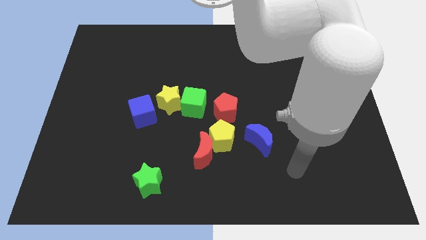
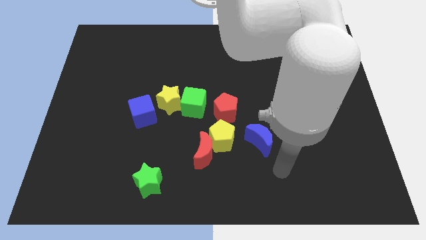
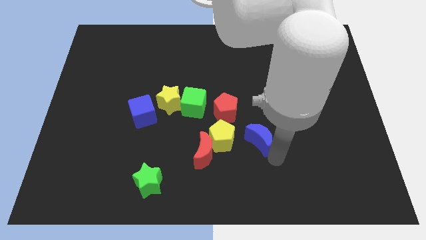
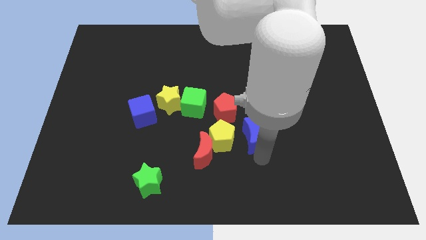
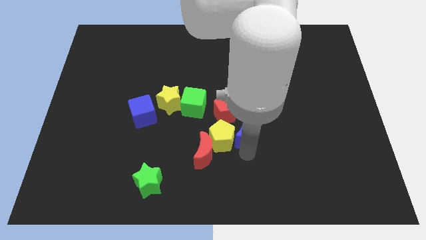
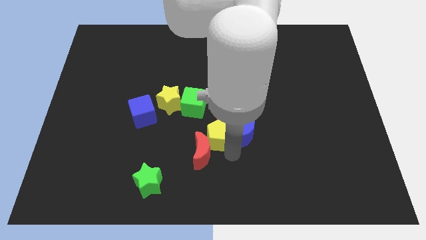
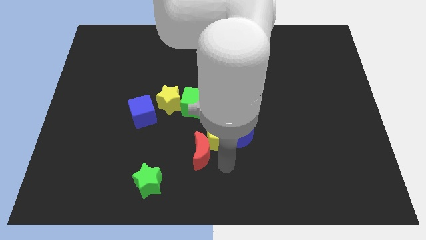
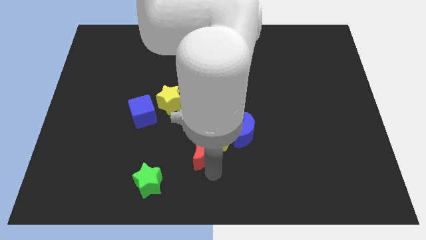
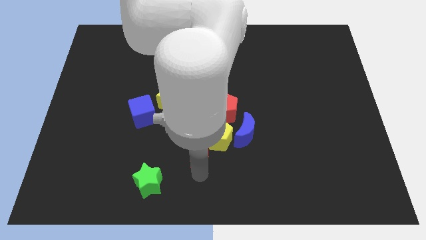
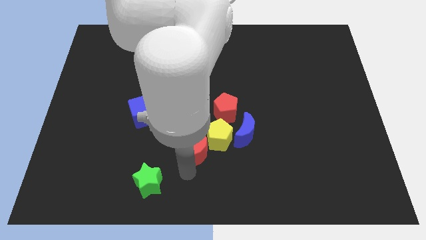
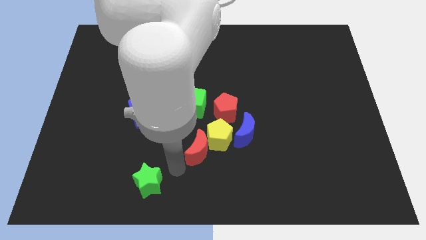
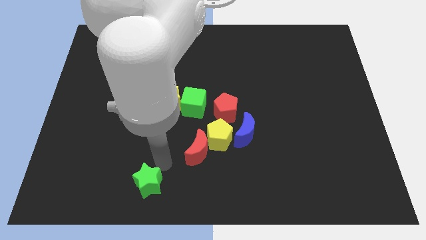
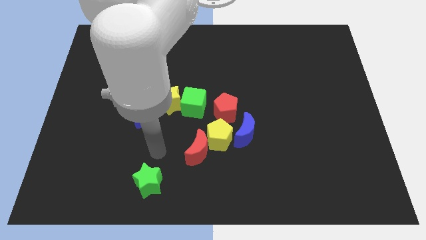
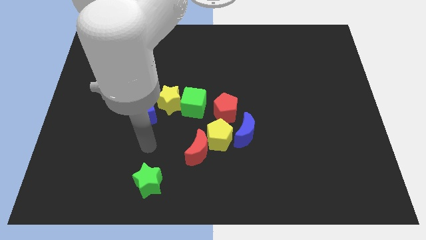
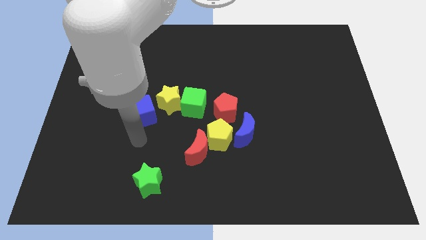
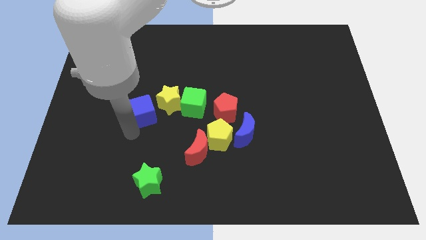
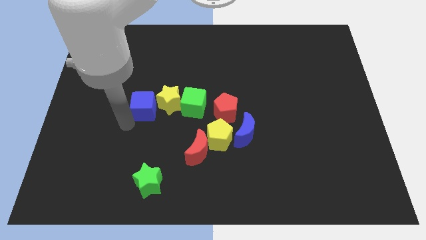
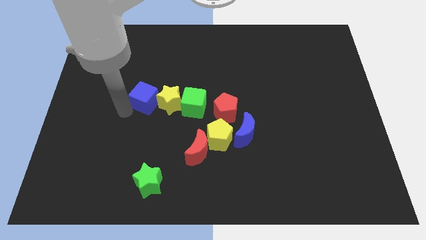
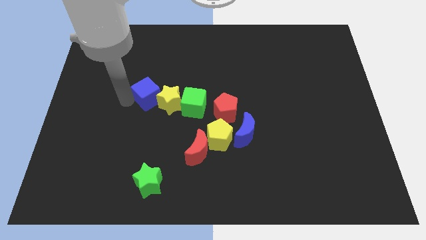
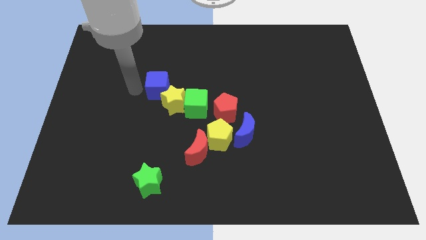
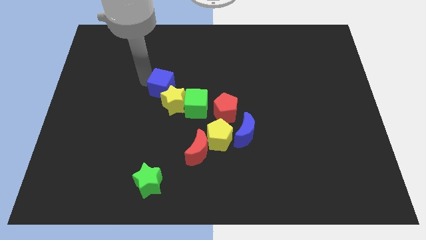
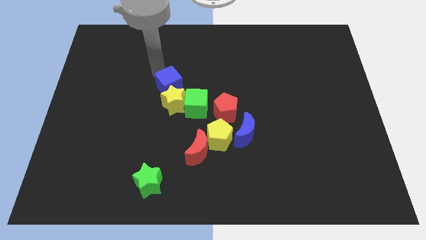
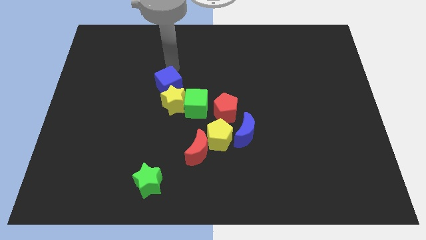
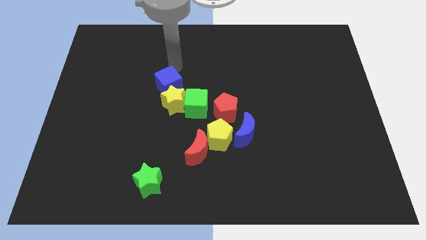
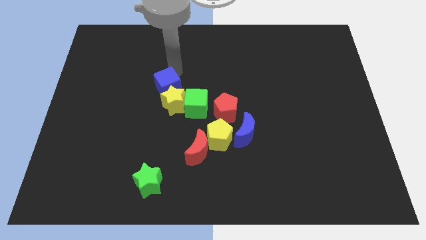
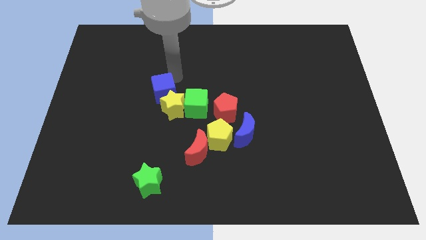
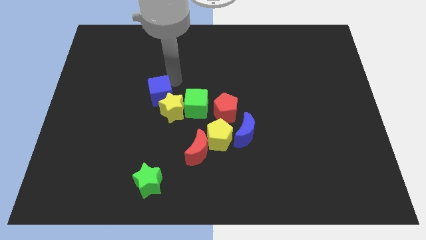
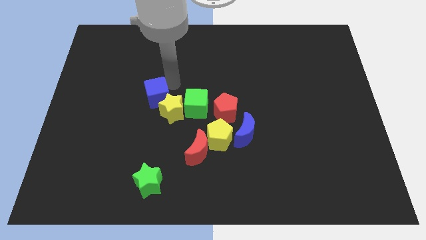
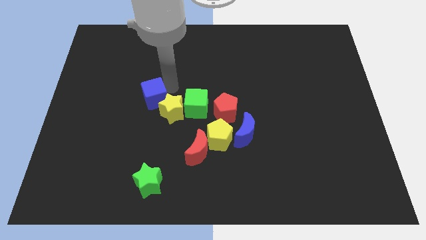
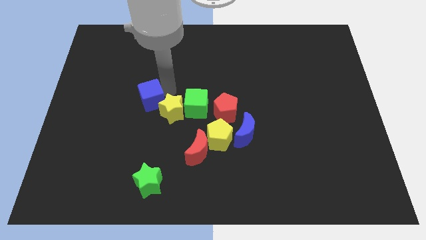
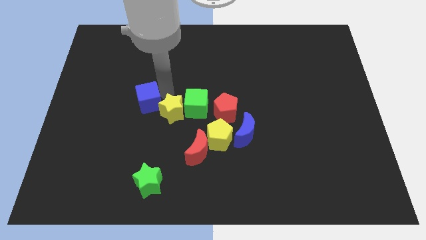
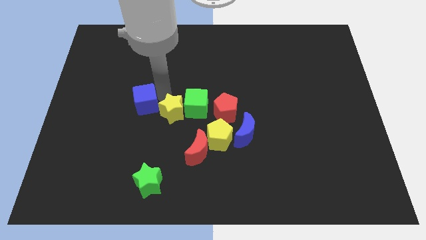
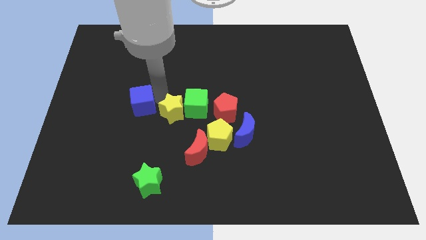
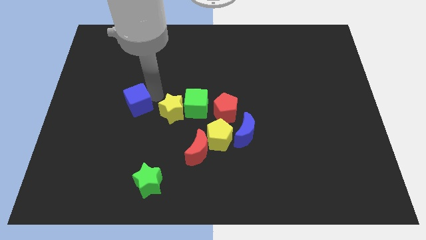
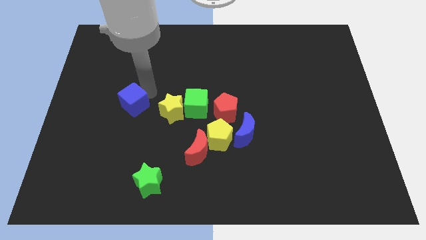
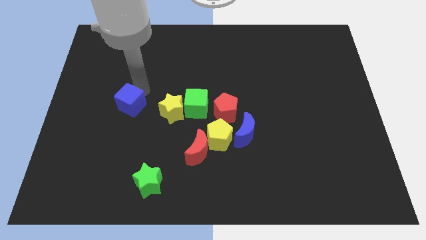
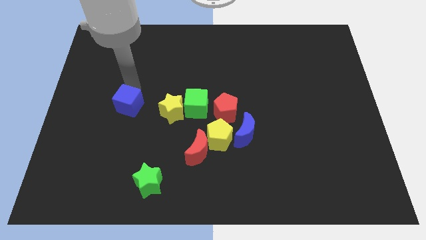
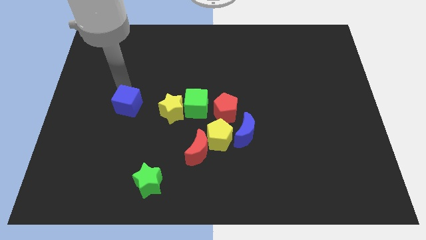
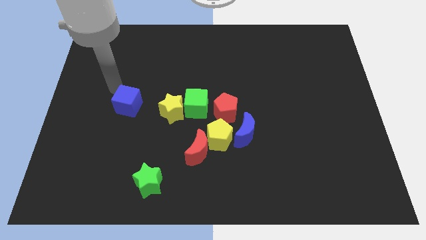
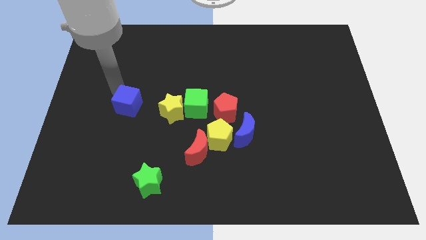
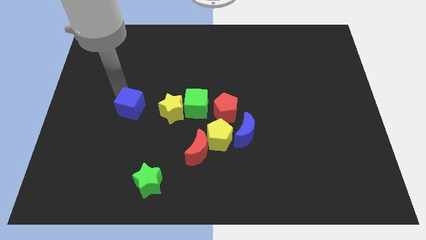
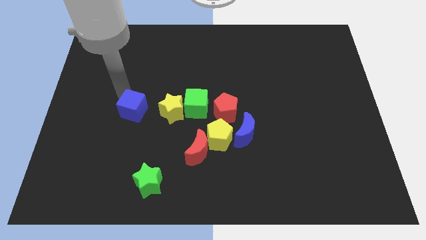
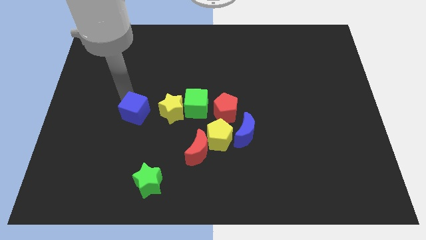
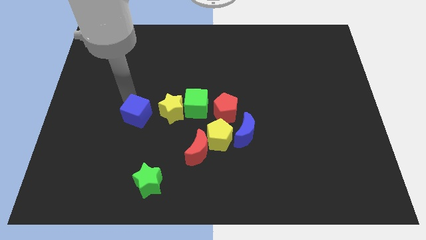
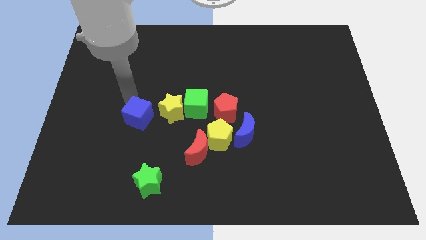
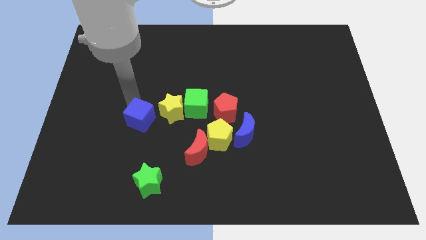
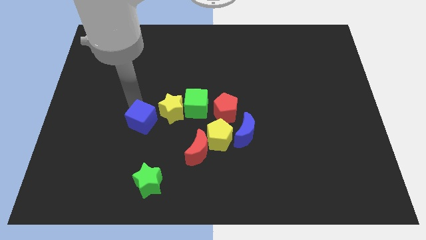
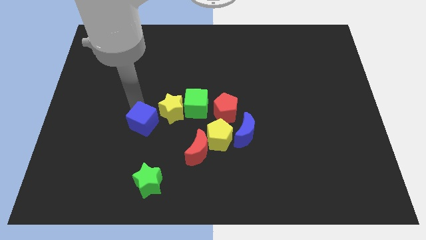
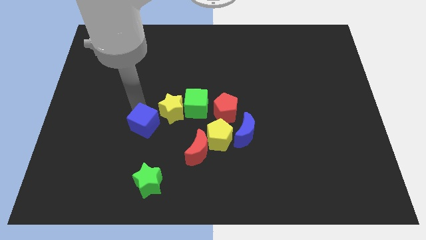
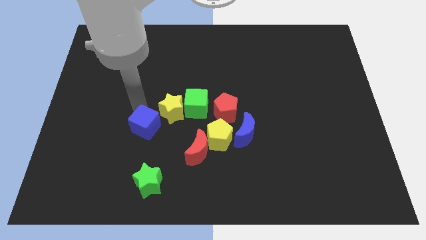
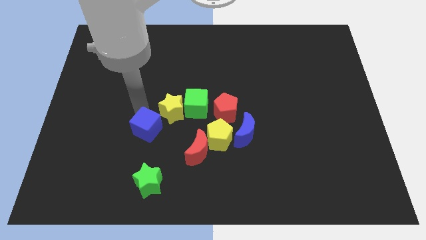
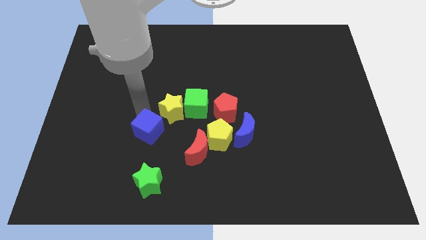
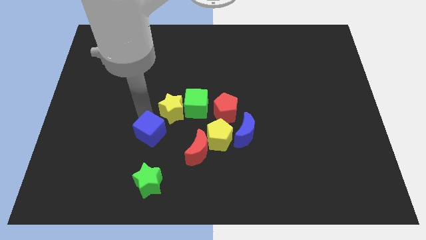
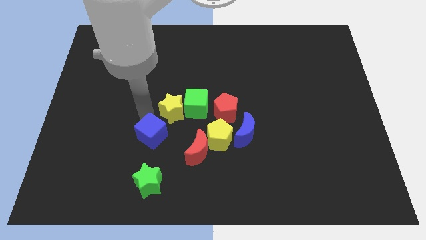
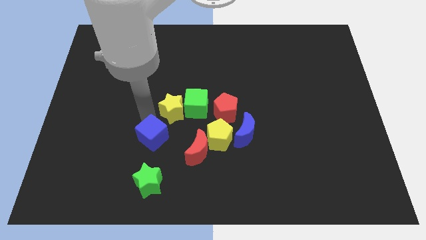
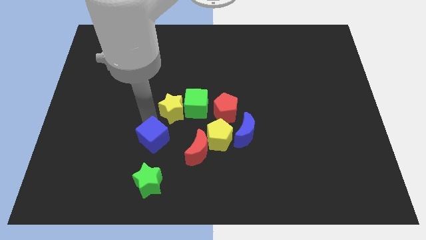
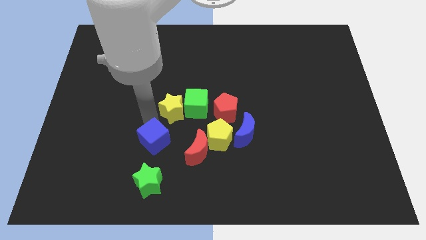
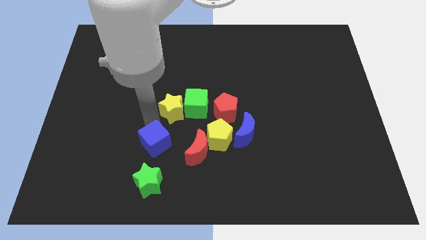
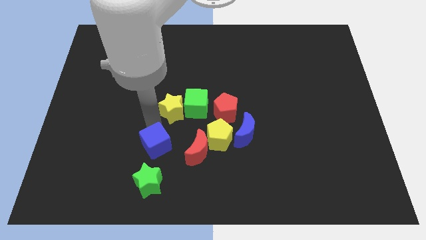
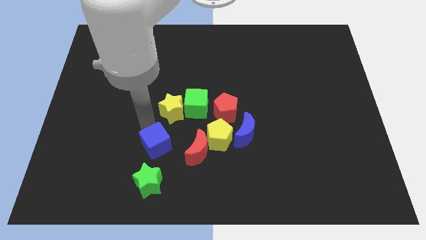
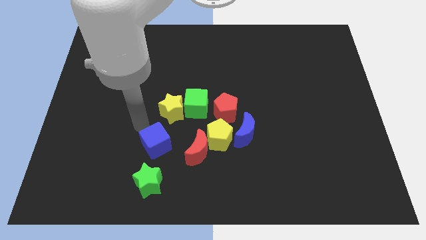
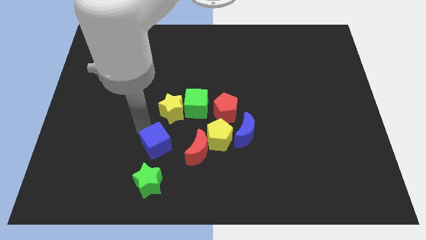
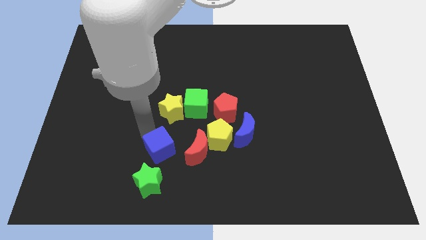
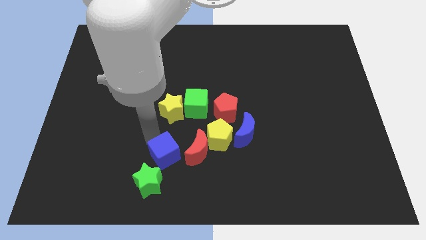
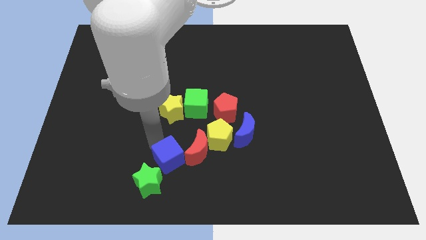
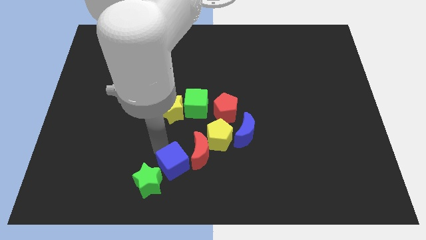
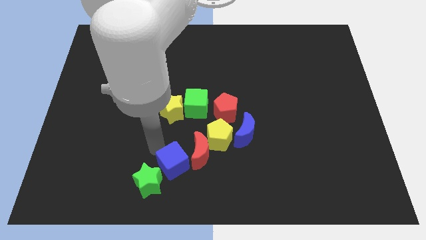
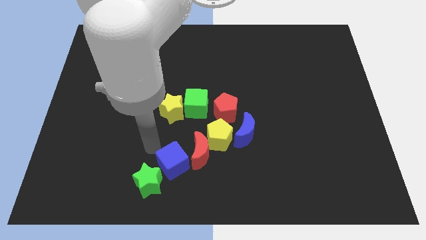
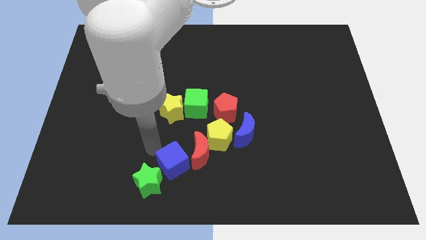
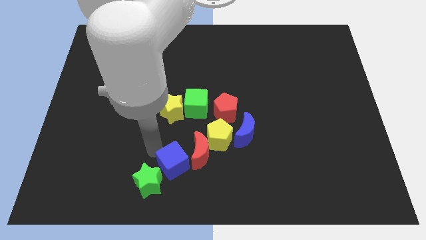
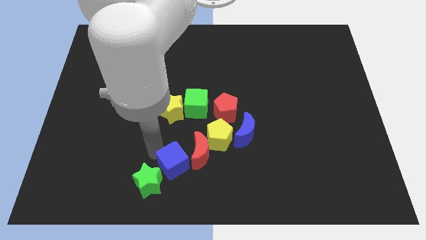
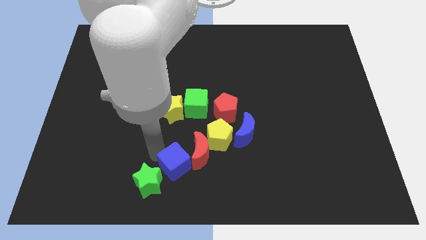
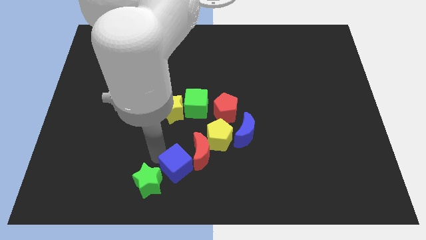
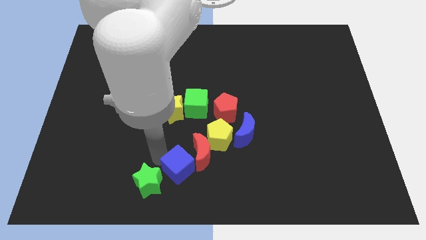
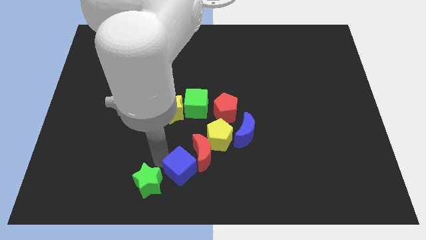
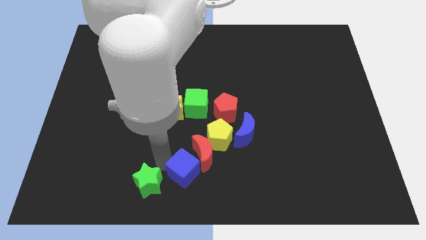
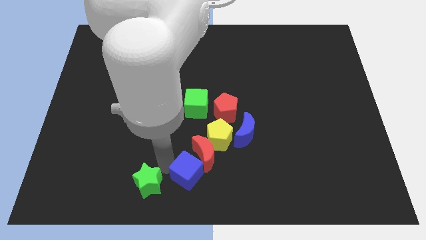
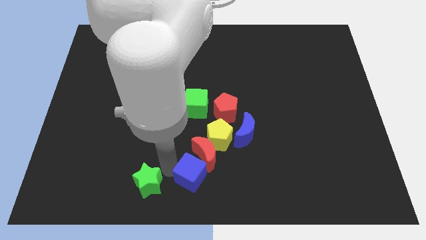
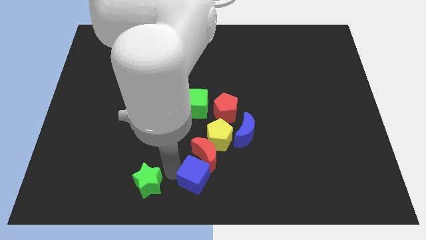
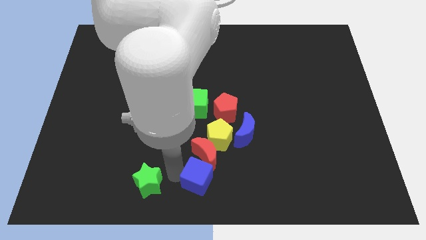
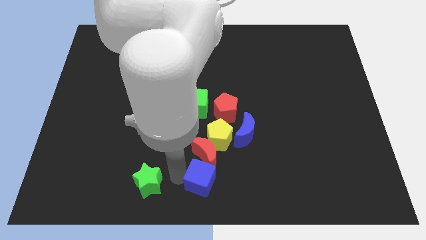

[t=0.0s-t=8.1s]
push the blue cube to the bottom right of the red moon
